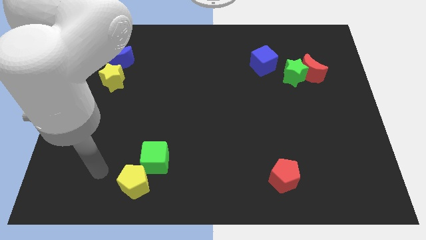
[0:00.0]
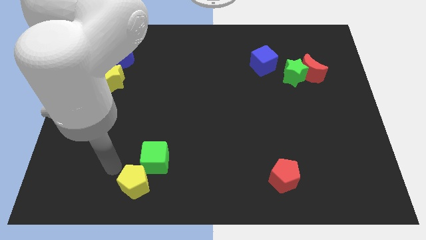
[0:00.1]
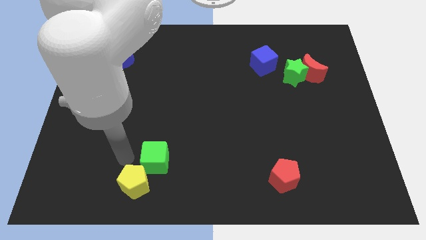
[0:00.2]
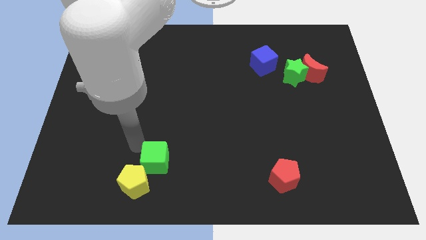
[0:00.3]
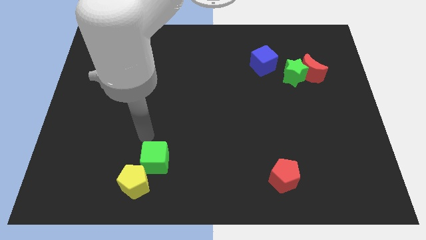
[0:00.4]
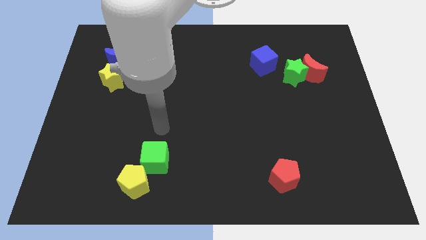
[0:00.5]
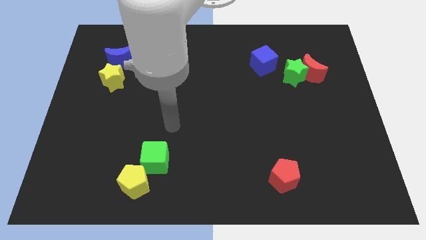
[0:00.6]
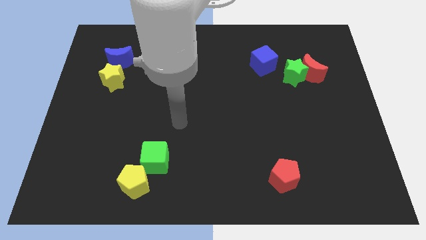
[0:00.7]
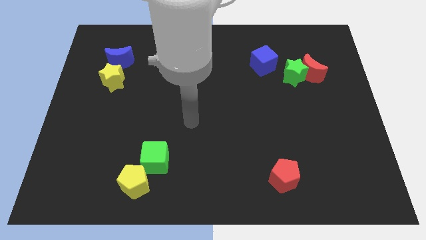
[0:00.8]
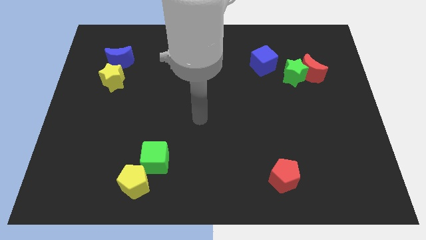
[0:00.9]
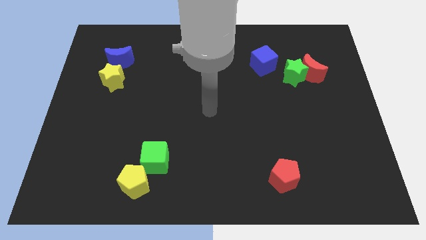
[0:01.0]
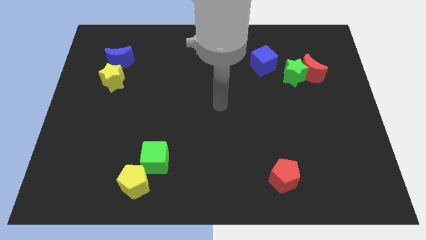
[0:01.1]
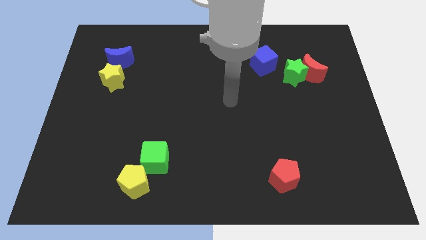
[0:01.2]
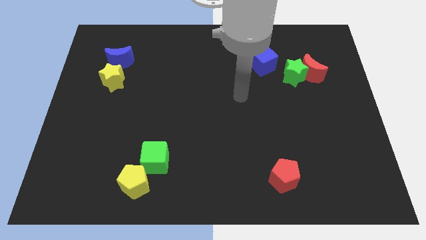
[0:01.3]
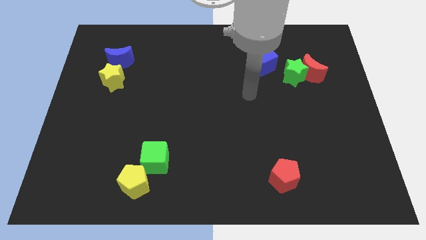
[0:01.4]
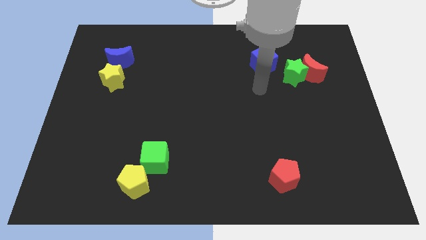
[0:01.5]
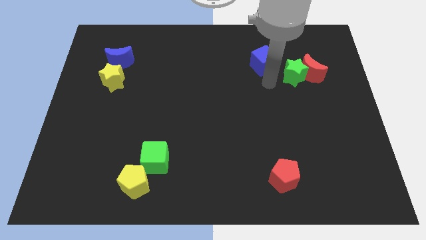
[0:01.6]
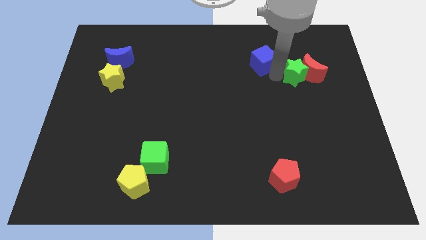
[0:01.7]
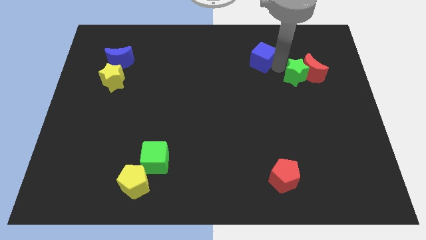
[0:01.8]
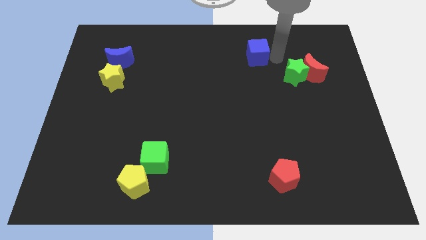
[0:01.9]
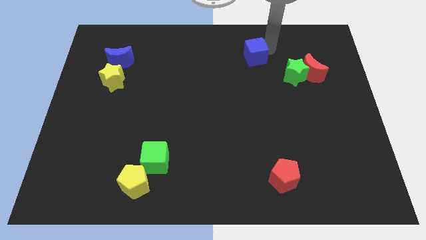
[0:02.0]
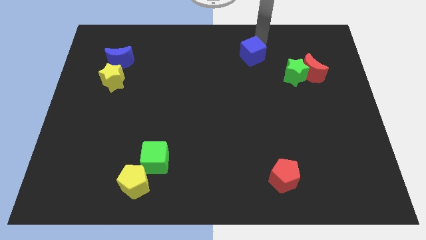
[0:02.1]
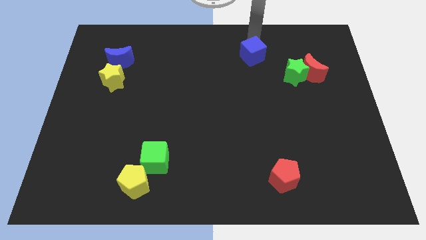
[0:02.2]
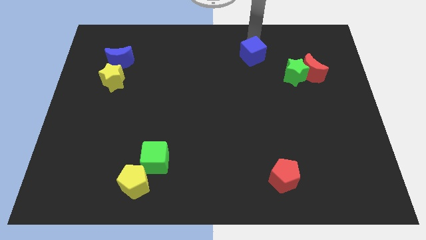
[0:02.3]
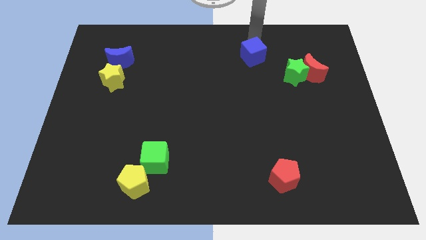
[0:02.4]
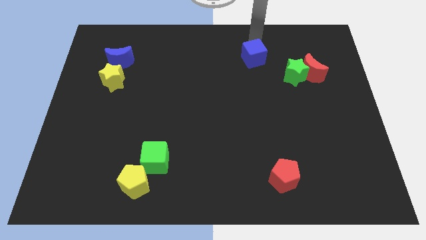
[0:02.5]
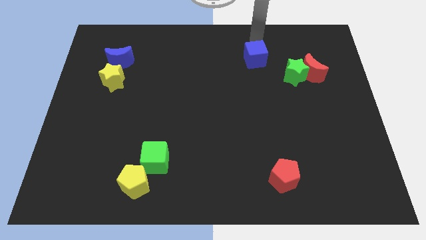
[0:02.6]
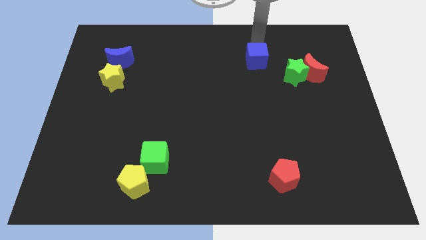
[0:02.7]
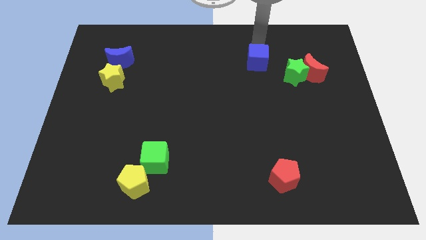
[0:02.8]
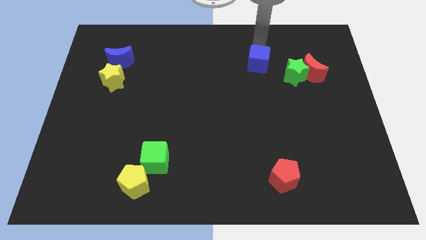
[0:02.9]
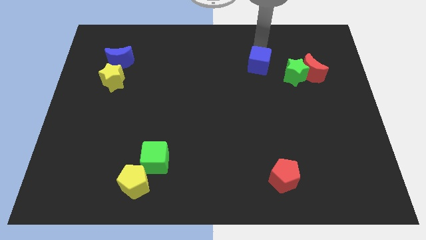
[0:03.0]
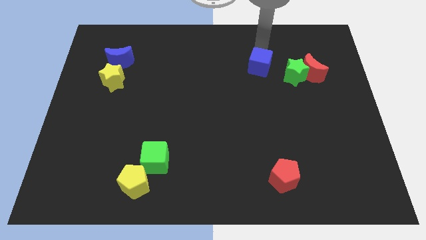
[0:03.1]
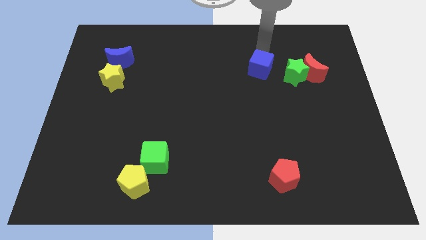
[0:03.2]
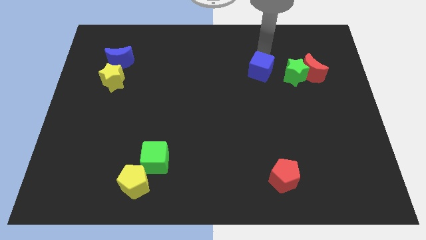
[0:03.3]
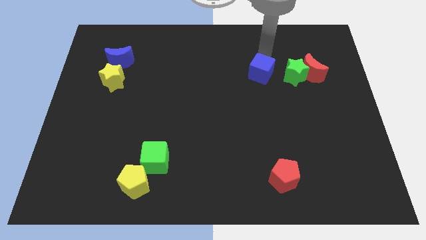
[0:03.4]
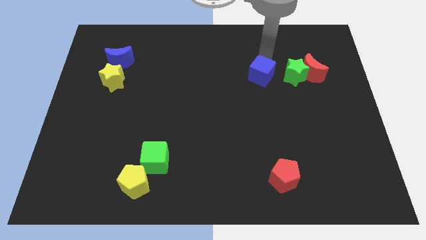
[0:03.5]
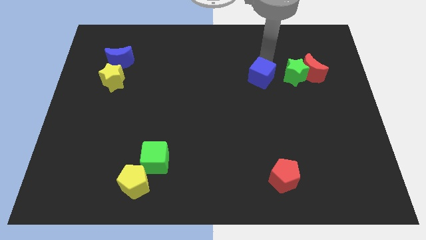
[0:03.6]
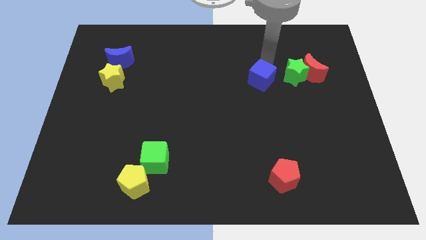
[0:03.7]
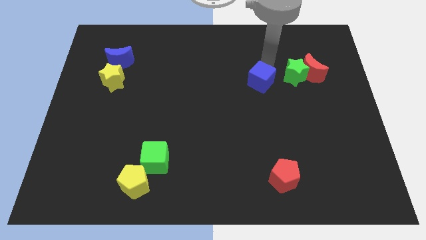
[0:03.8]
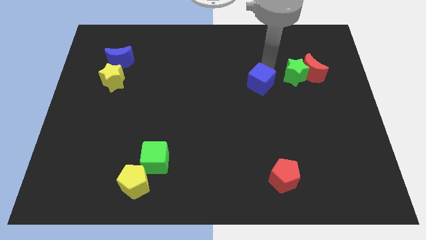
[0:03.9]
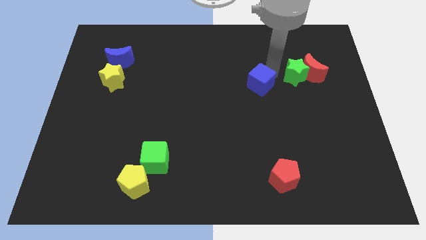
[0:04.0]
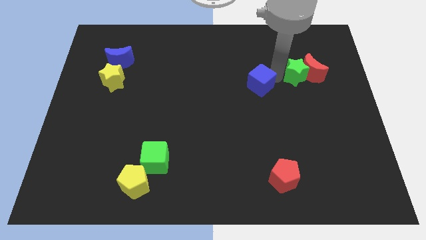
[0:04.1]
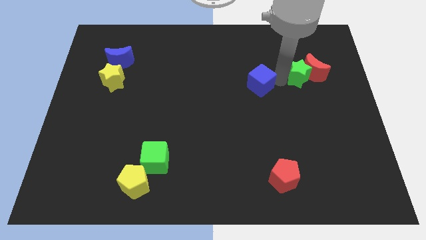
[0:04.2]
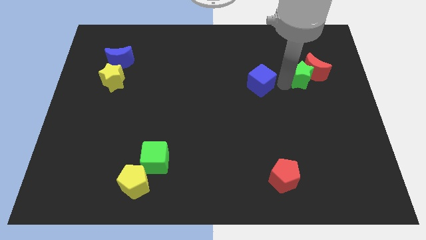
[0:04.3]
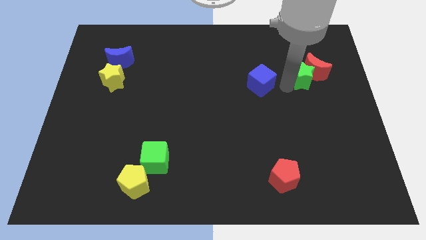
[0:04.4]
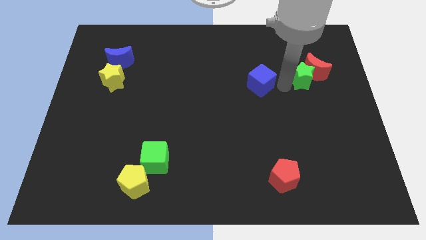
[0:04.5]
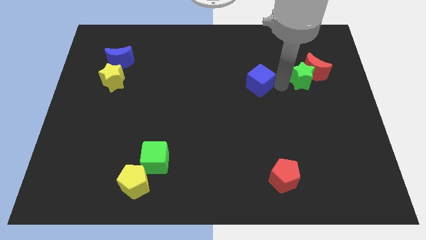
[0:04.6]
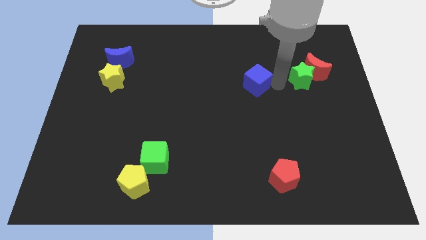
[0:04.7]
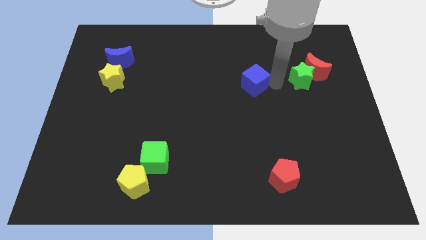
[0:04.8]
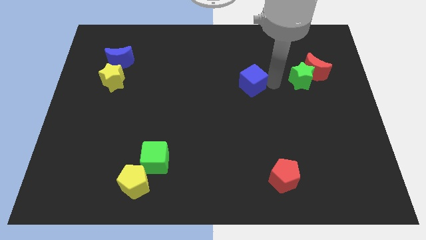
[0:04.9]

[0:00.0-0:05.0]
move the blue cube a bit down and then to the left

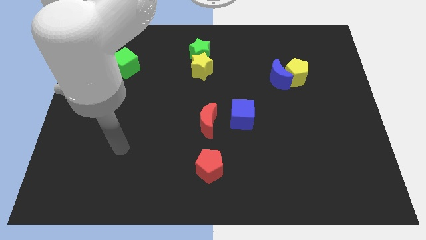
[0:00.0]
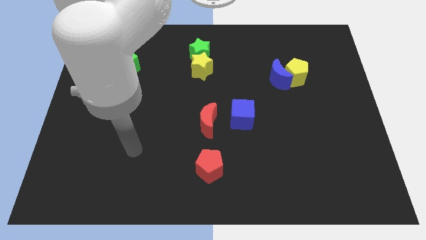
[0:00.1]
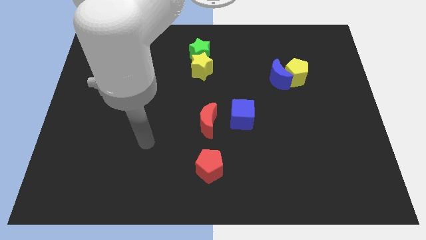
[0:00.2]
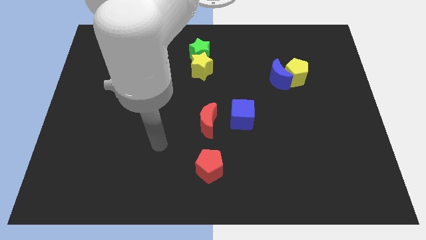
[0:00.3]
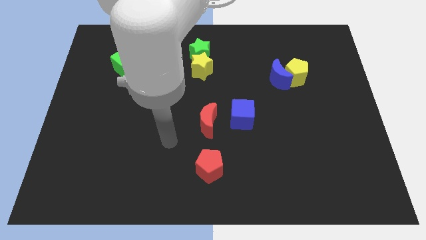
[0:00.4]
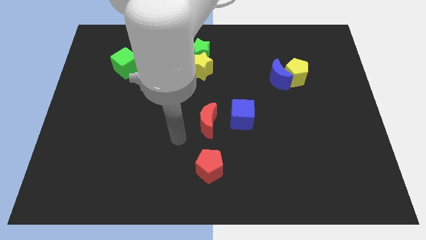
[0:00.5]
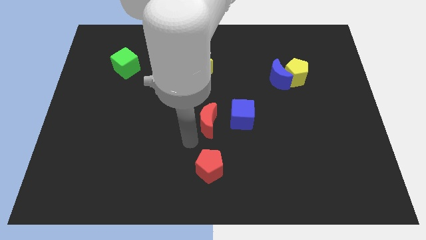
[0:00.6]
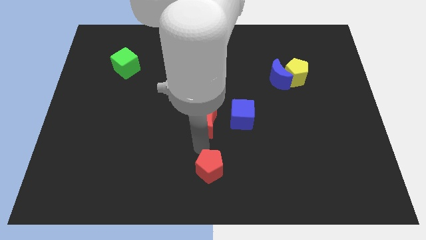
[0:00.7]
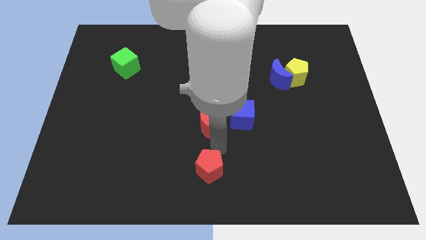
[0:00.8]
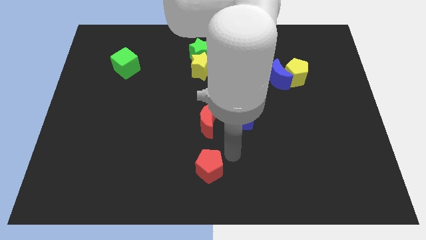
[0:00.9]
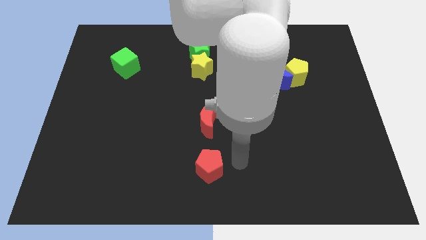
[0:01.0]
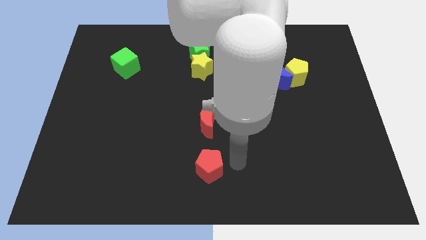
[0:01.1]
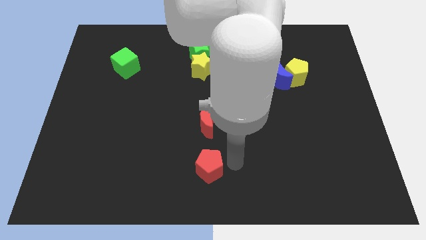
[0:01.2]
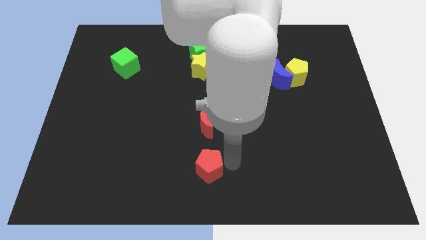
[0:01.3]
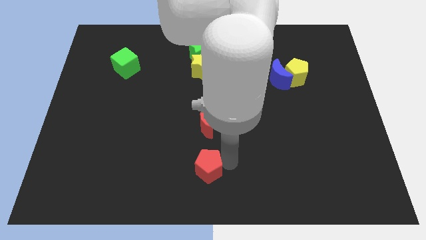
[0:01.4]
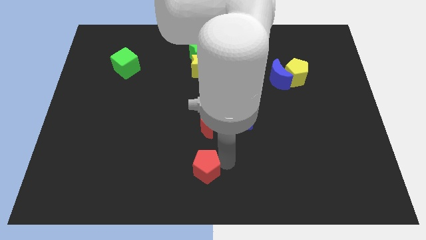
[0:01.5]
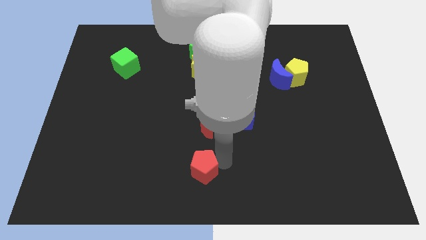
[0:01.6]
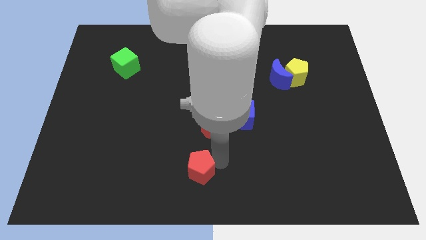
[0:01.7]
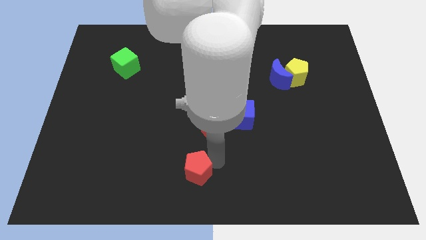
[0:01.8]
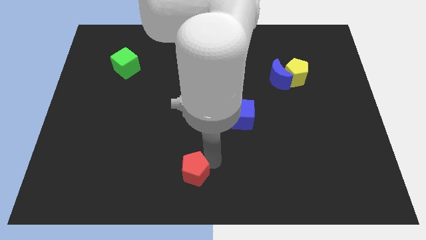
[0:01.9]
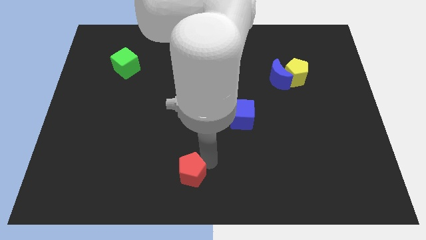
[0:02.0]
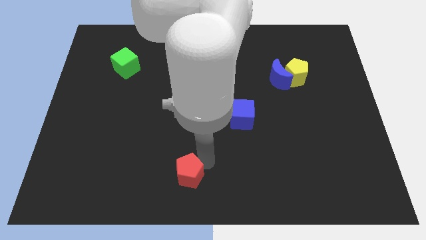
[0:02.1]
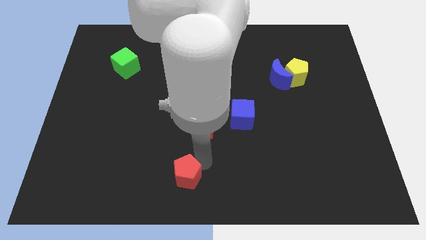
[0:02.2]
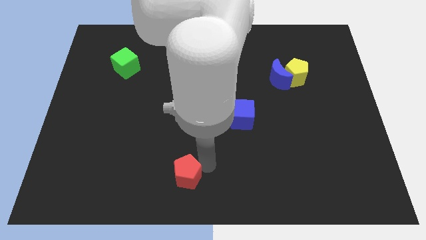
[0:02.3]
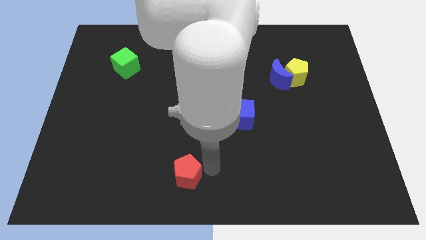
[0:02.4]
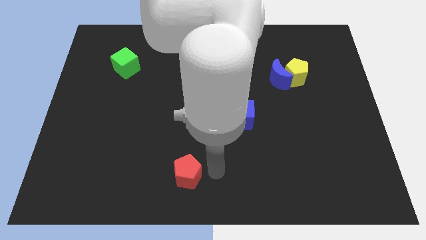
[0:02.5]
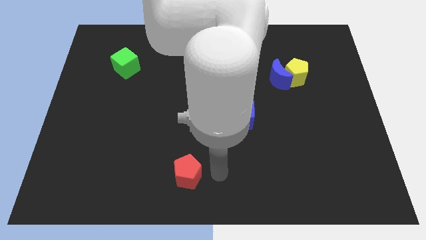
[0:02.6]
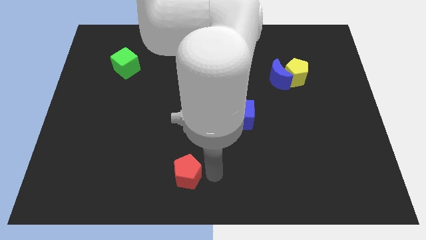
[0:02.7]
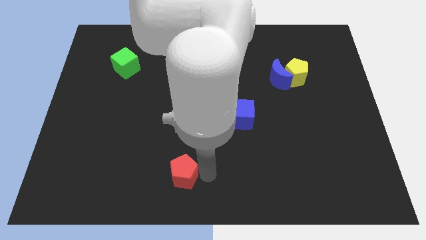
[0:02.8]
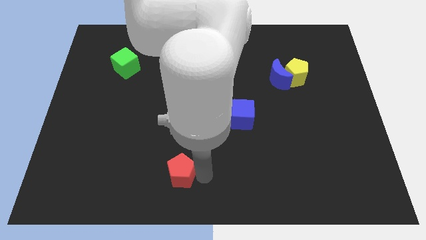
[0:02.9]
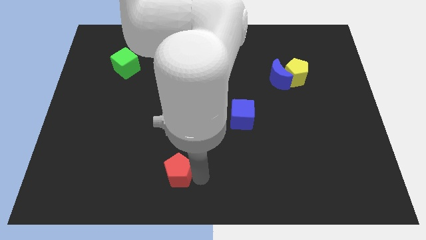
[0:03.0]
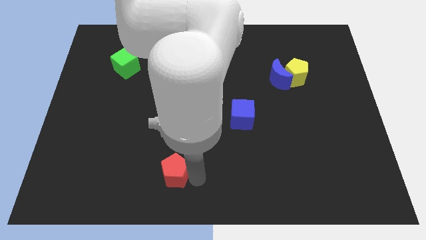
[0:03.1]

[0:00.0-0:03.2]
slightly move the red pentagon to the left

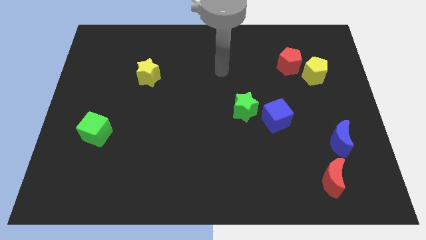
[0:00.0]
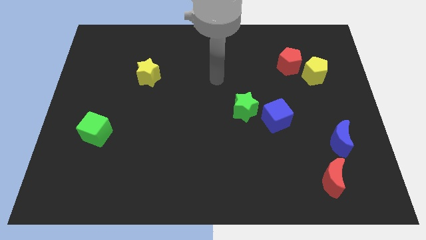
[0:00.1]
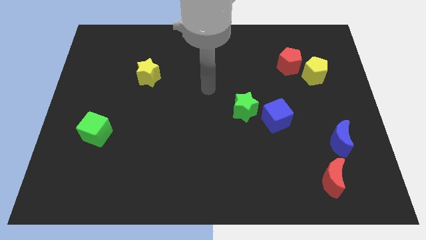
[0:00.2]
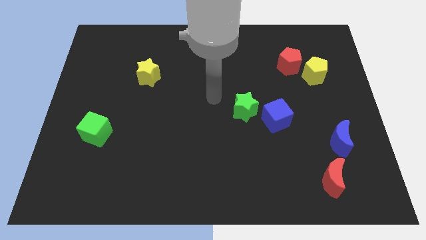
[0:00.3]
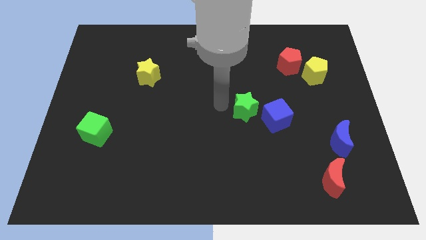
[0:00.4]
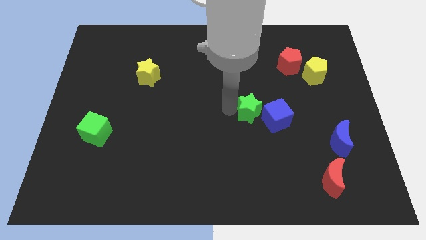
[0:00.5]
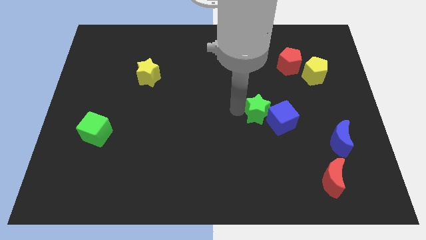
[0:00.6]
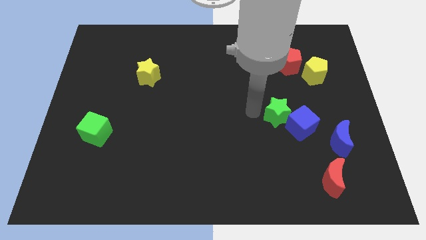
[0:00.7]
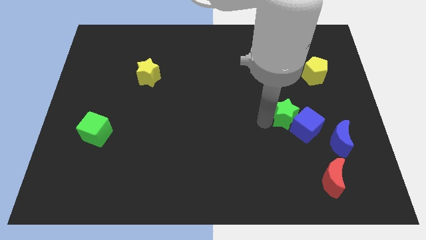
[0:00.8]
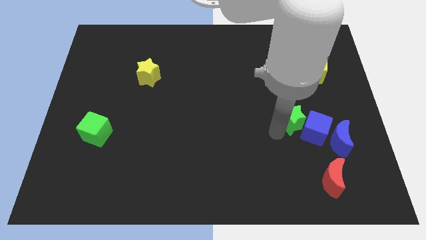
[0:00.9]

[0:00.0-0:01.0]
slightly move the blue cube downwards and then to the right
